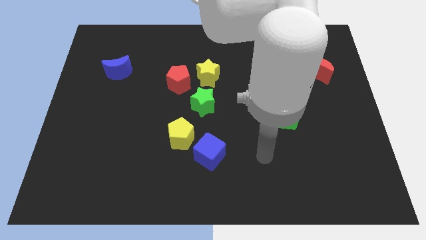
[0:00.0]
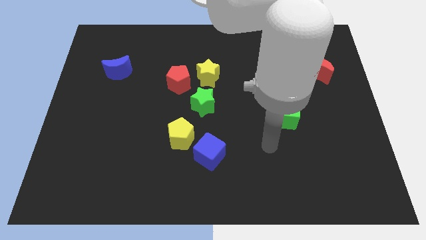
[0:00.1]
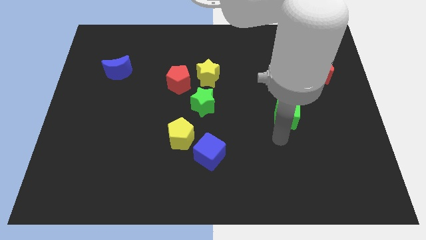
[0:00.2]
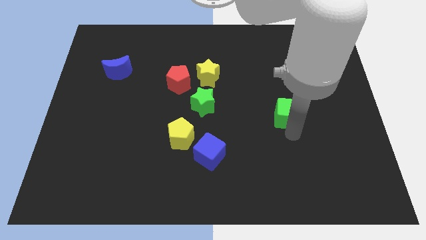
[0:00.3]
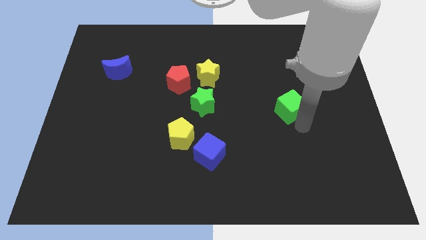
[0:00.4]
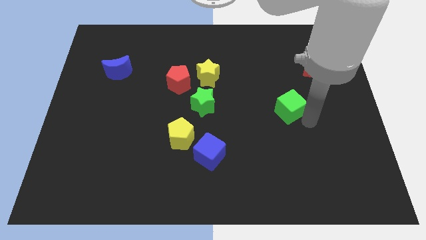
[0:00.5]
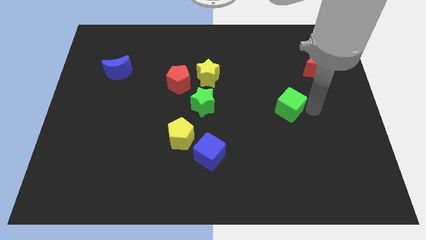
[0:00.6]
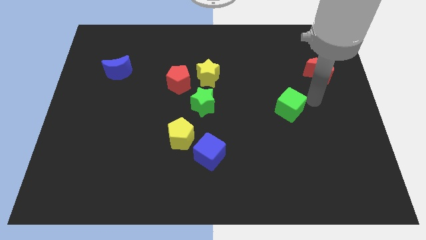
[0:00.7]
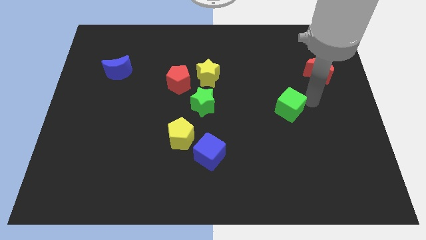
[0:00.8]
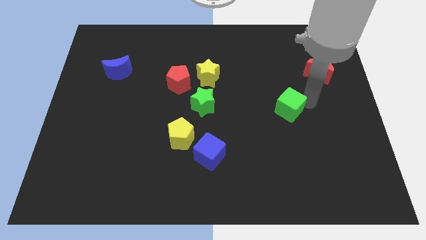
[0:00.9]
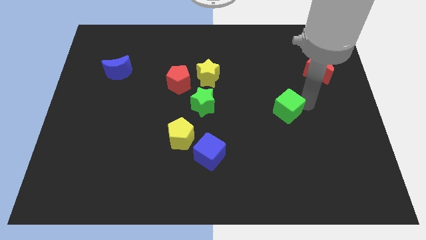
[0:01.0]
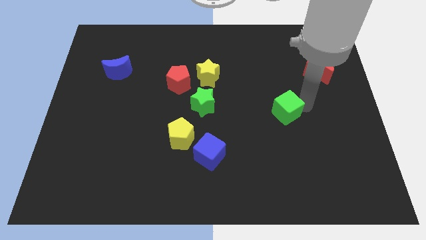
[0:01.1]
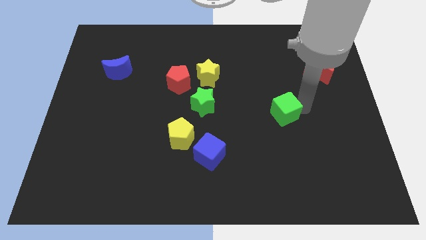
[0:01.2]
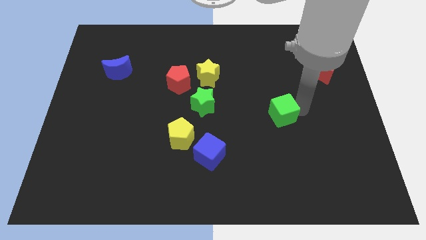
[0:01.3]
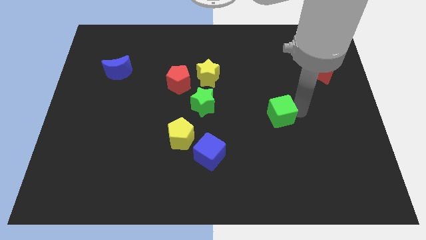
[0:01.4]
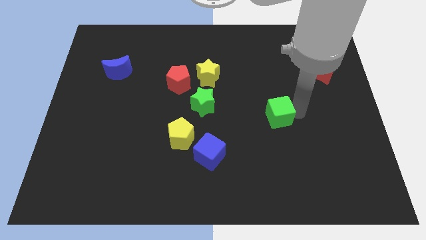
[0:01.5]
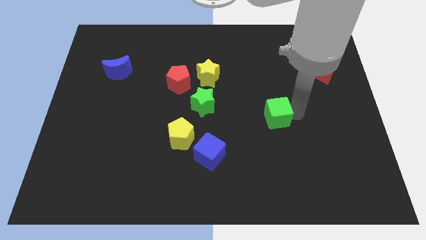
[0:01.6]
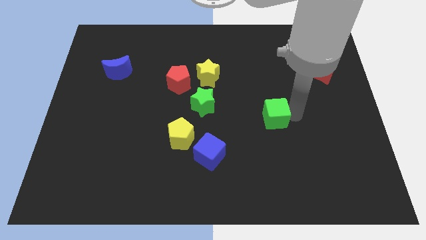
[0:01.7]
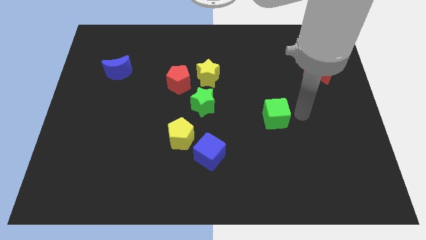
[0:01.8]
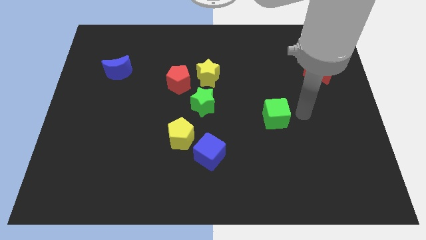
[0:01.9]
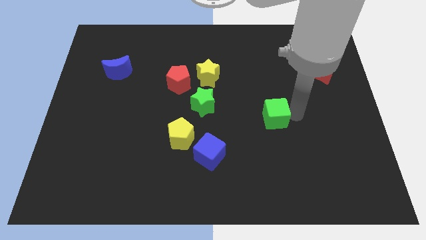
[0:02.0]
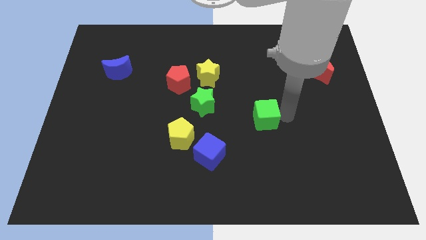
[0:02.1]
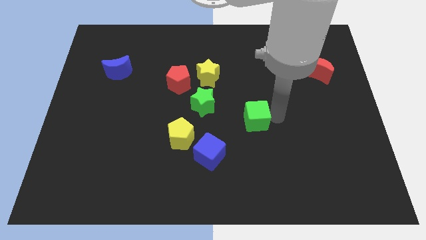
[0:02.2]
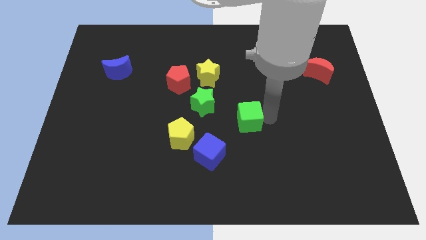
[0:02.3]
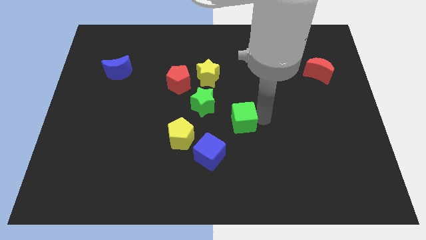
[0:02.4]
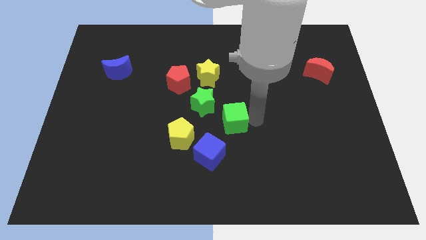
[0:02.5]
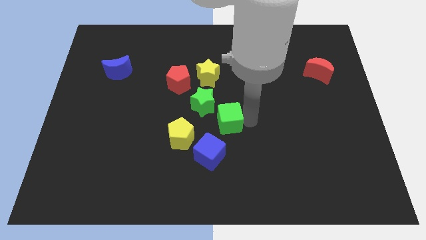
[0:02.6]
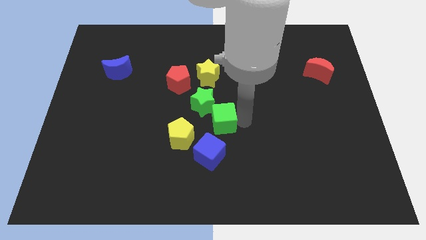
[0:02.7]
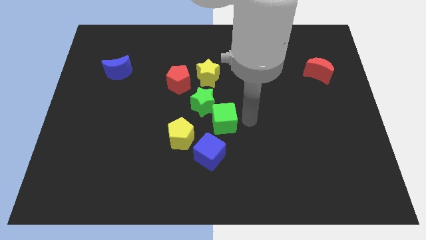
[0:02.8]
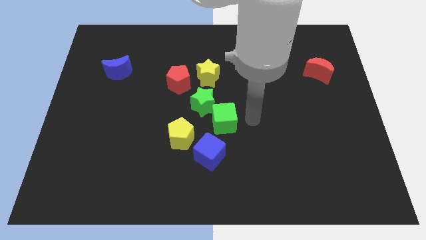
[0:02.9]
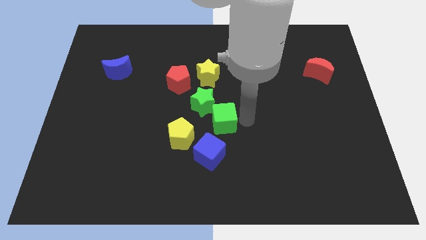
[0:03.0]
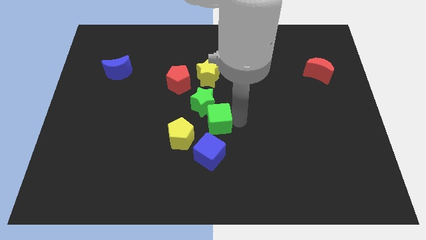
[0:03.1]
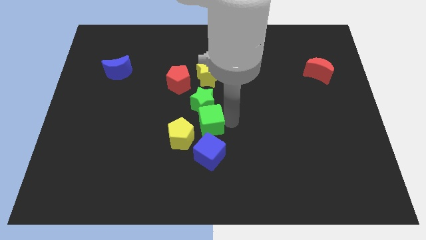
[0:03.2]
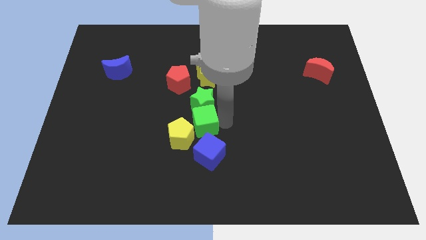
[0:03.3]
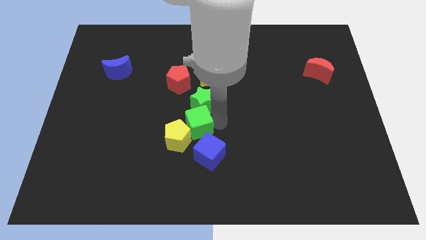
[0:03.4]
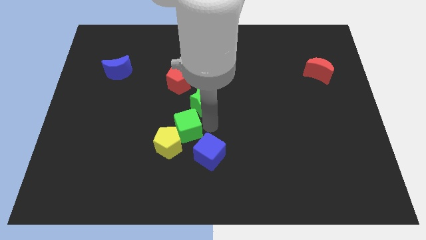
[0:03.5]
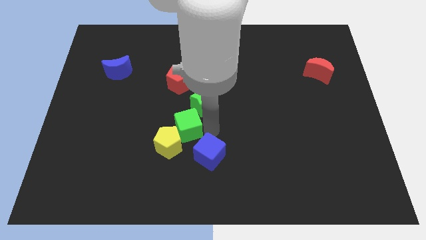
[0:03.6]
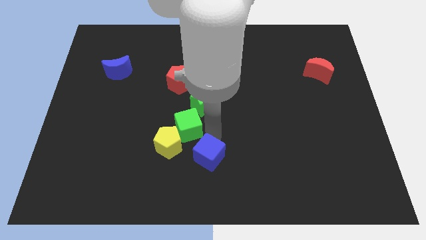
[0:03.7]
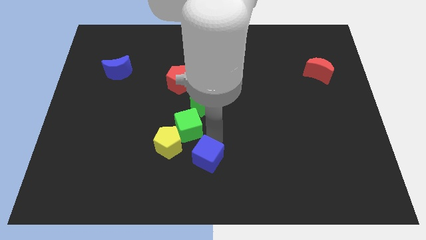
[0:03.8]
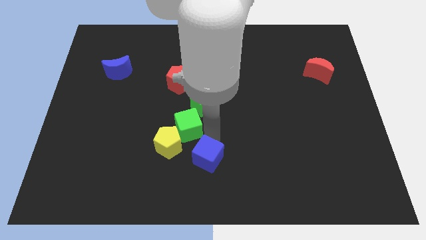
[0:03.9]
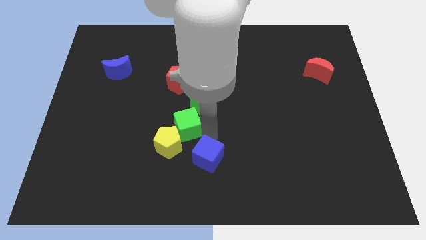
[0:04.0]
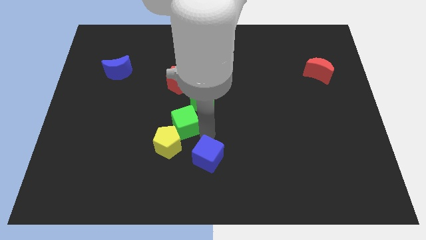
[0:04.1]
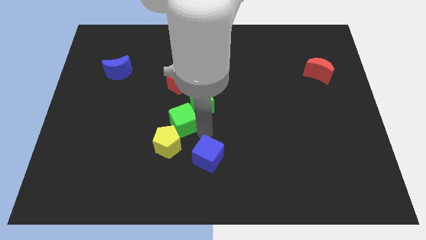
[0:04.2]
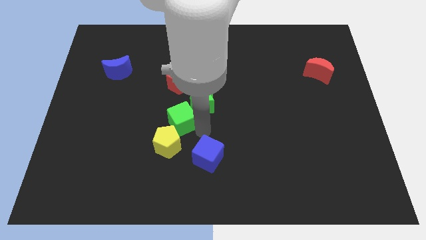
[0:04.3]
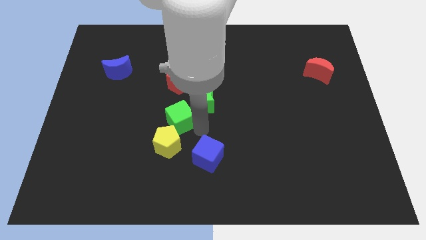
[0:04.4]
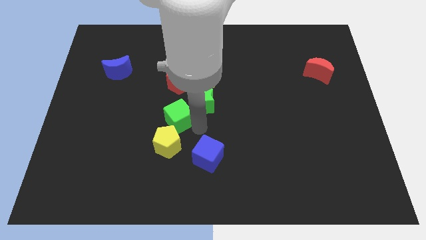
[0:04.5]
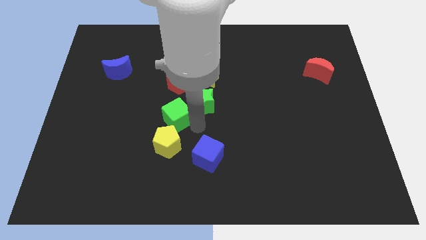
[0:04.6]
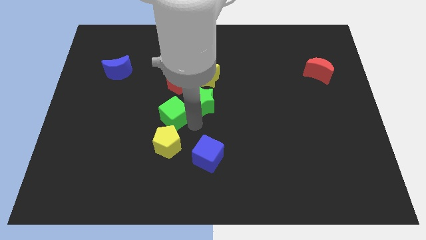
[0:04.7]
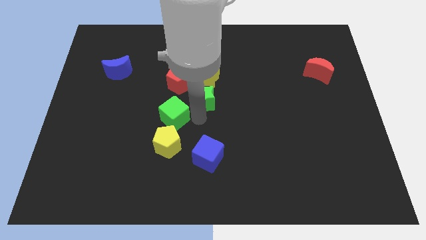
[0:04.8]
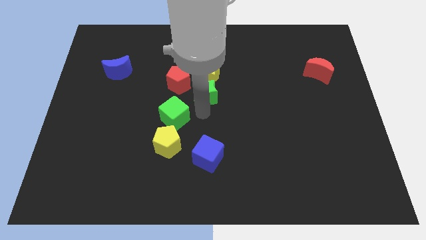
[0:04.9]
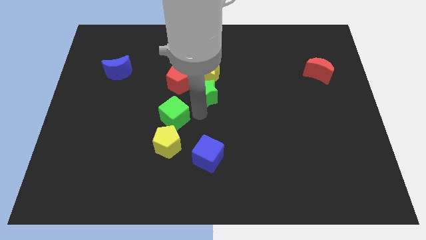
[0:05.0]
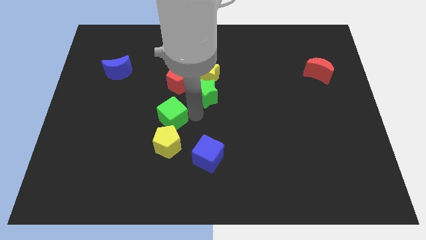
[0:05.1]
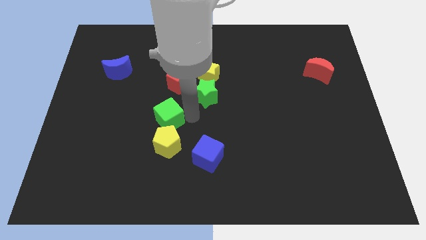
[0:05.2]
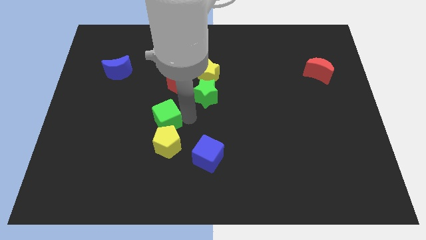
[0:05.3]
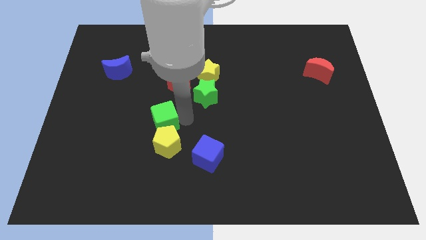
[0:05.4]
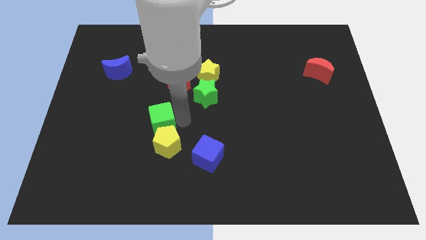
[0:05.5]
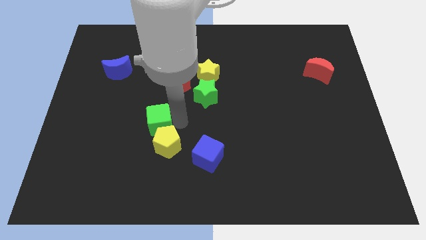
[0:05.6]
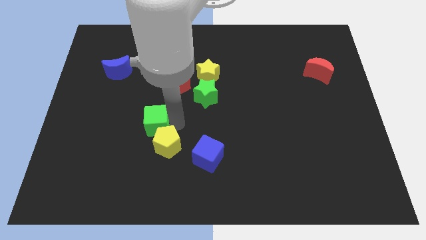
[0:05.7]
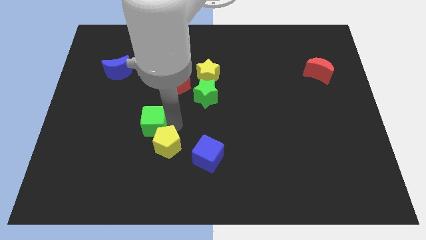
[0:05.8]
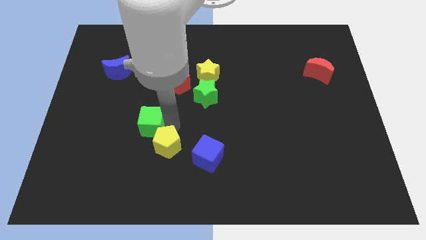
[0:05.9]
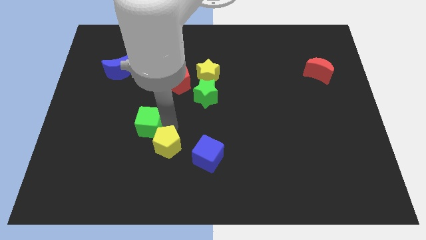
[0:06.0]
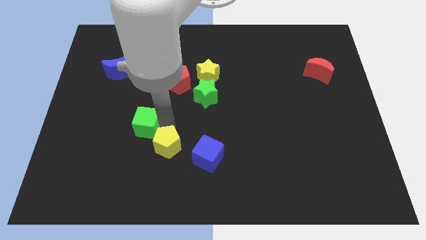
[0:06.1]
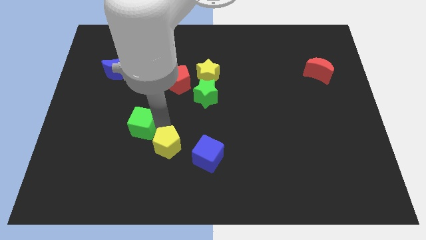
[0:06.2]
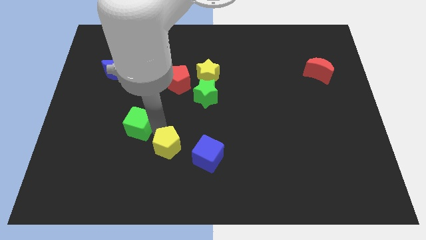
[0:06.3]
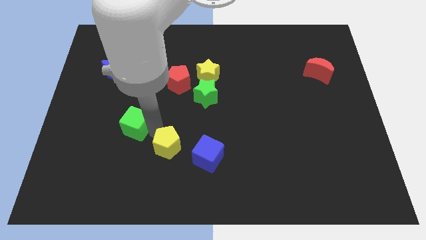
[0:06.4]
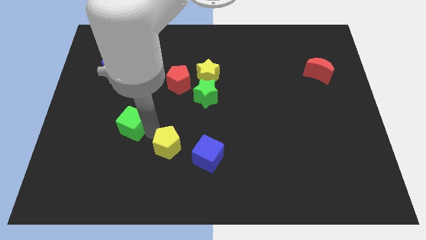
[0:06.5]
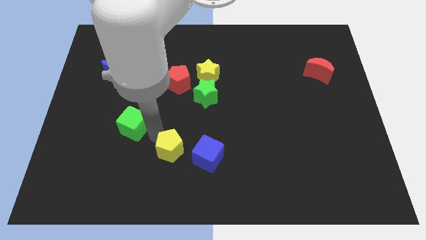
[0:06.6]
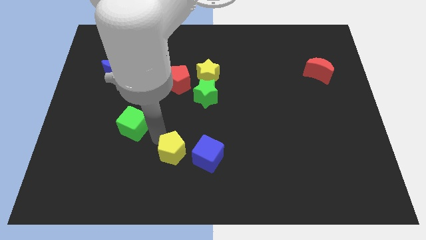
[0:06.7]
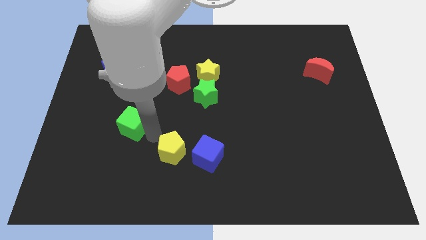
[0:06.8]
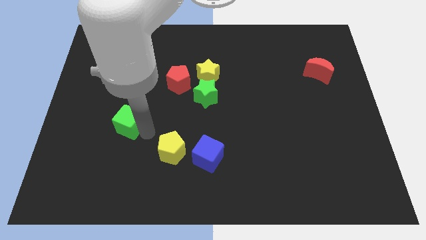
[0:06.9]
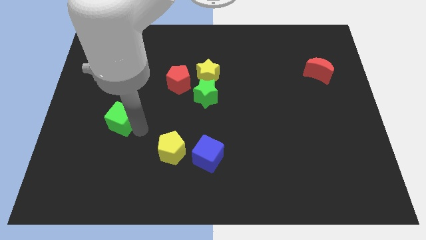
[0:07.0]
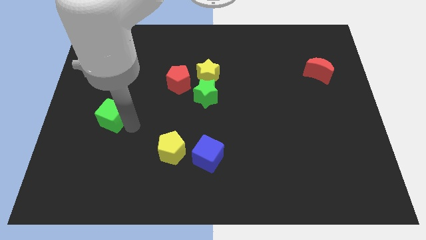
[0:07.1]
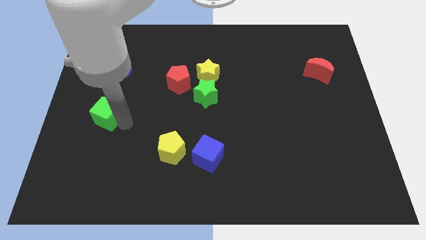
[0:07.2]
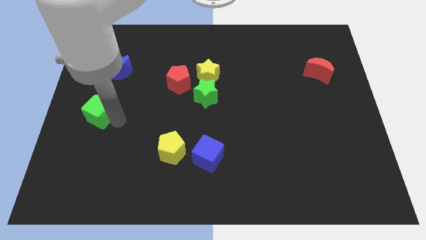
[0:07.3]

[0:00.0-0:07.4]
slide the green cube to the left side
